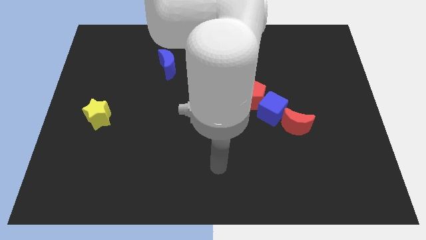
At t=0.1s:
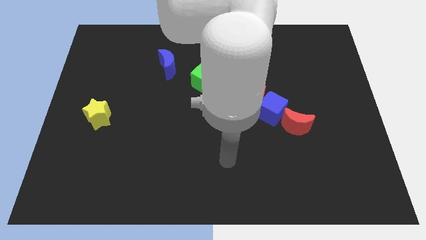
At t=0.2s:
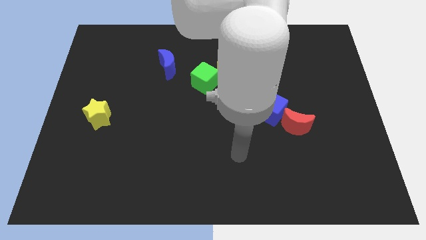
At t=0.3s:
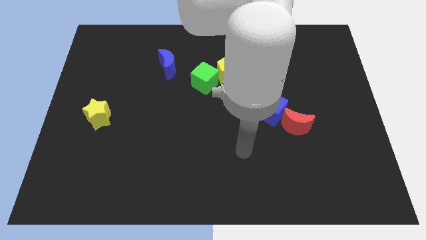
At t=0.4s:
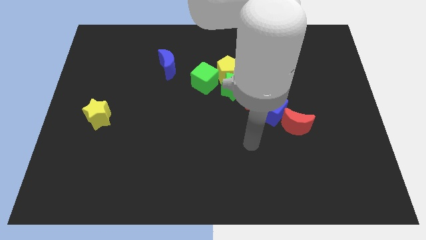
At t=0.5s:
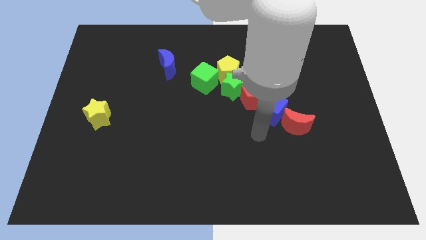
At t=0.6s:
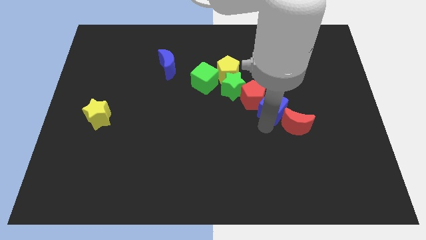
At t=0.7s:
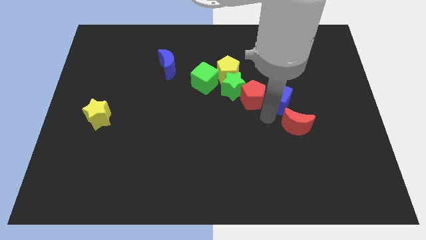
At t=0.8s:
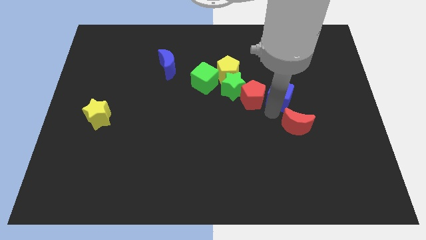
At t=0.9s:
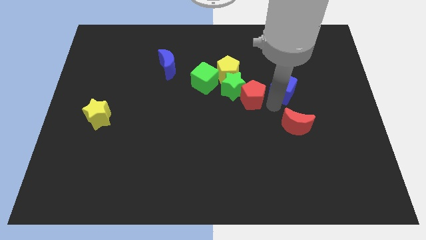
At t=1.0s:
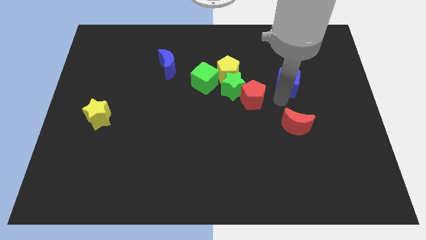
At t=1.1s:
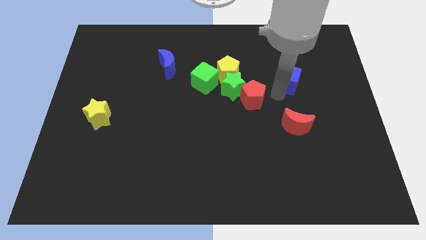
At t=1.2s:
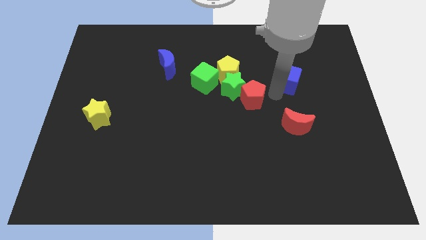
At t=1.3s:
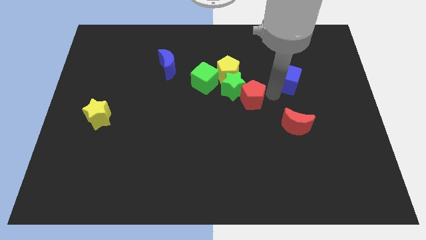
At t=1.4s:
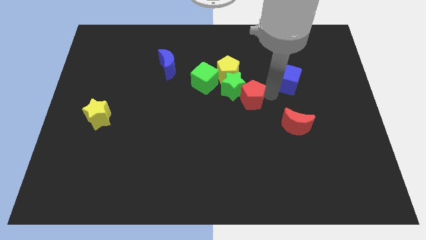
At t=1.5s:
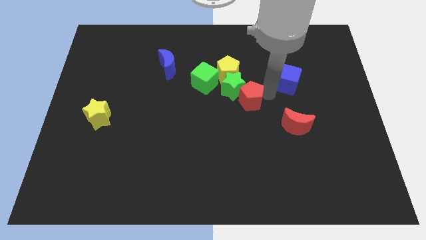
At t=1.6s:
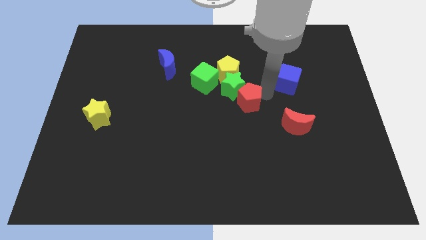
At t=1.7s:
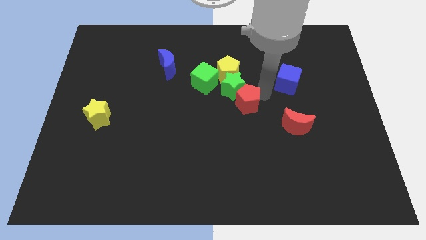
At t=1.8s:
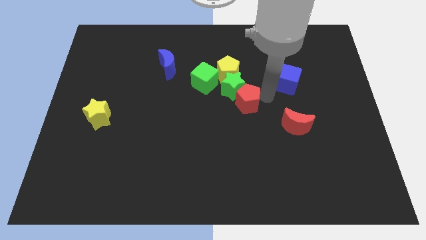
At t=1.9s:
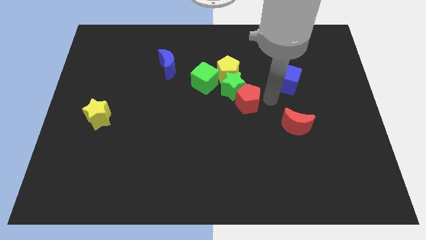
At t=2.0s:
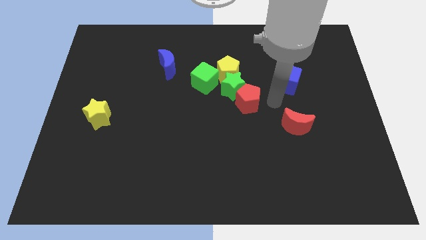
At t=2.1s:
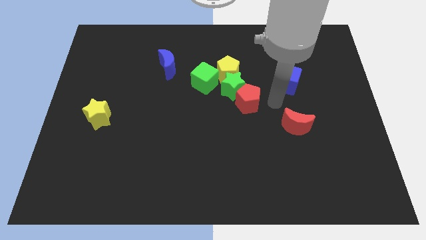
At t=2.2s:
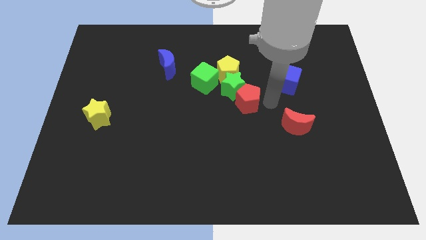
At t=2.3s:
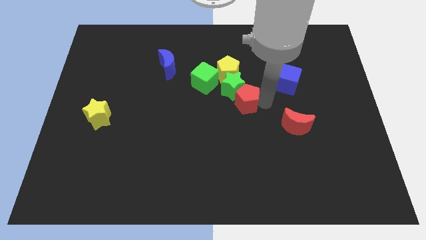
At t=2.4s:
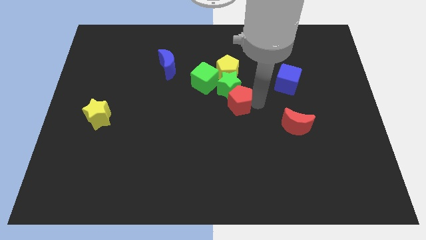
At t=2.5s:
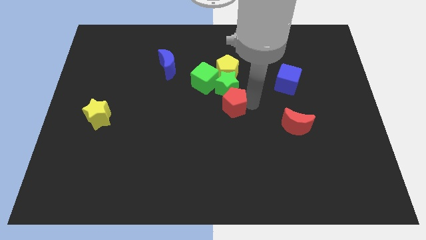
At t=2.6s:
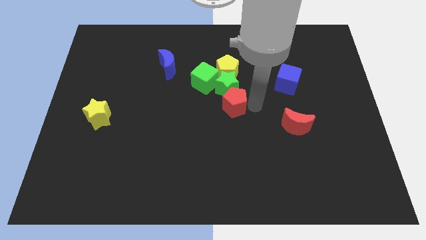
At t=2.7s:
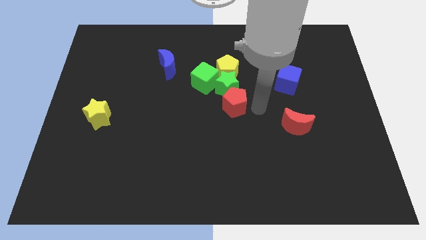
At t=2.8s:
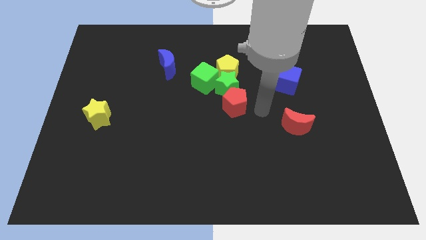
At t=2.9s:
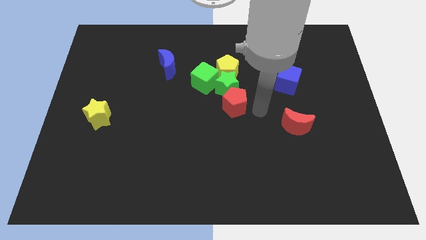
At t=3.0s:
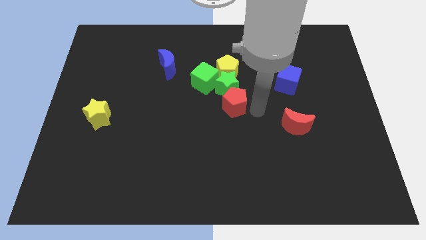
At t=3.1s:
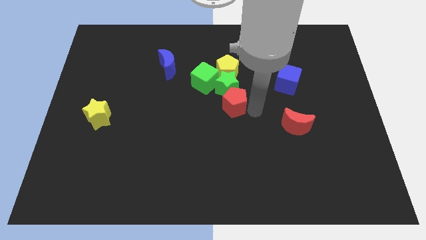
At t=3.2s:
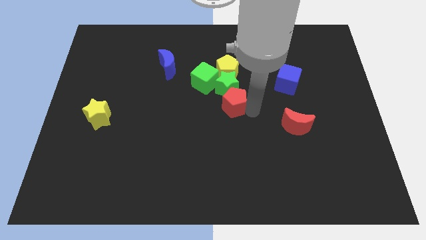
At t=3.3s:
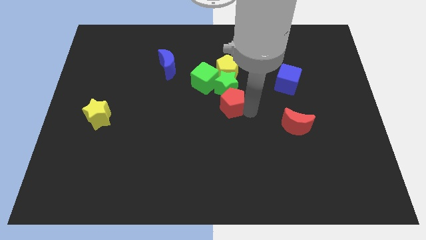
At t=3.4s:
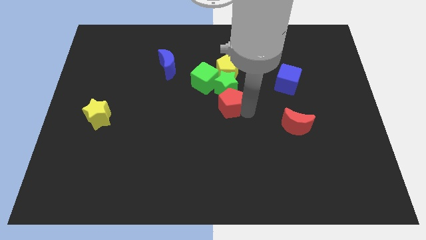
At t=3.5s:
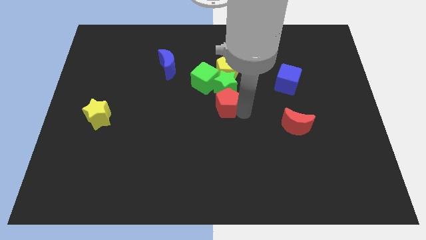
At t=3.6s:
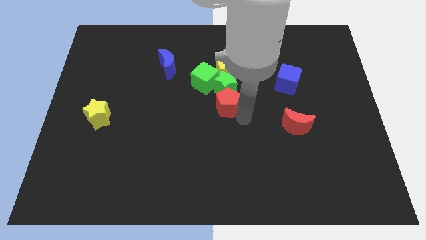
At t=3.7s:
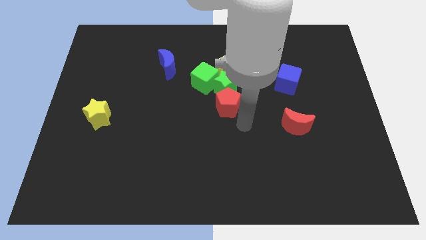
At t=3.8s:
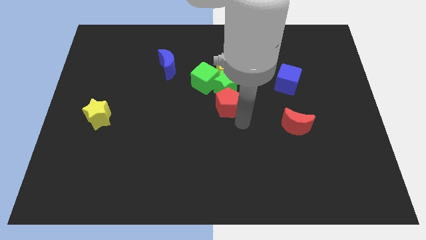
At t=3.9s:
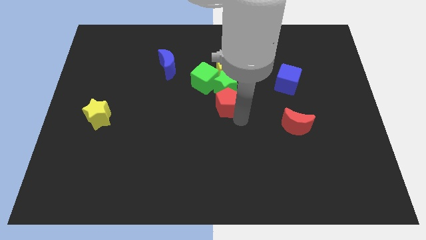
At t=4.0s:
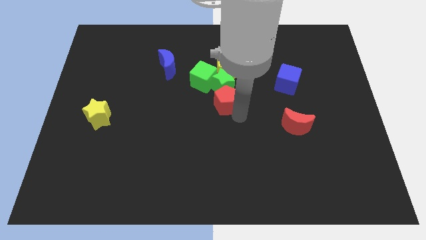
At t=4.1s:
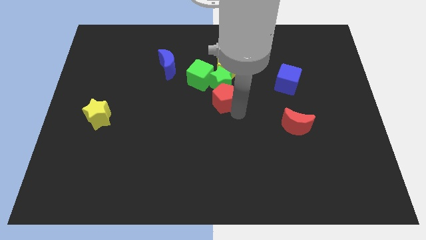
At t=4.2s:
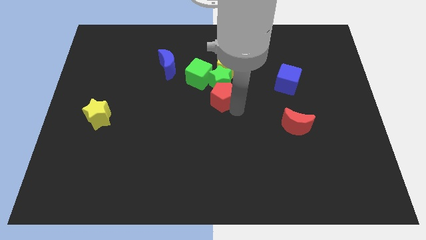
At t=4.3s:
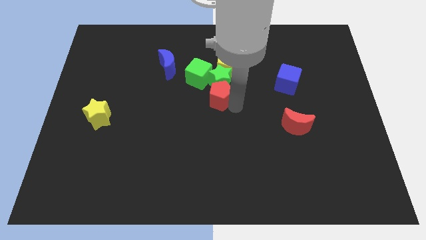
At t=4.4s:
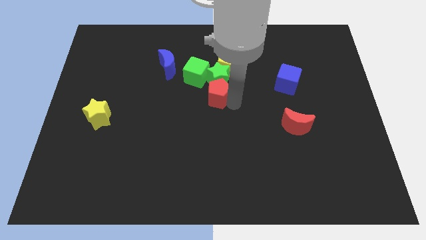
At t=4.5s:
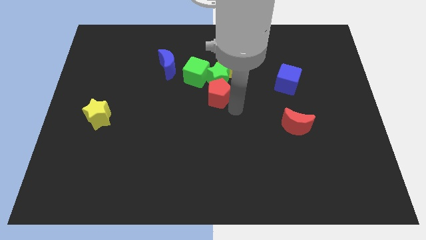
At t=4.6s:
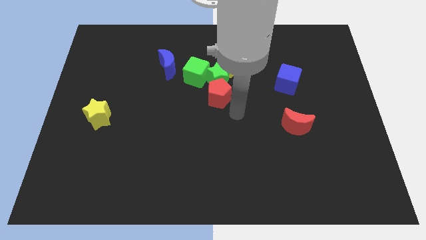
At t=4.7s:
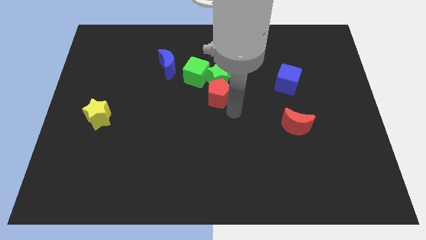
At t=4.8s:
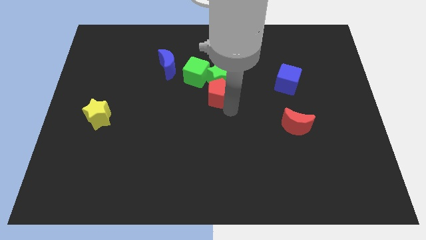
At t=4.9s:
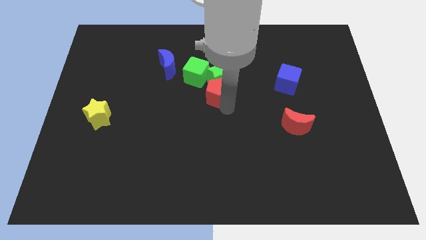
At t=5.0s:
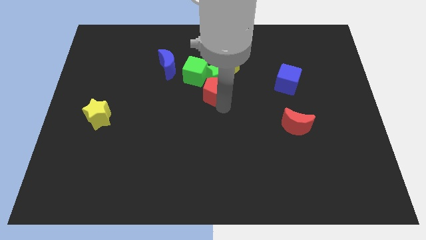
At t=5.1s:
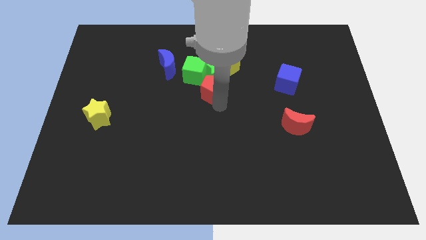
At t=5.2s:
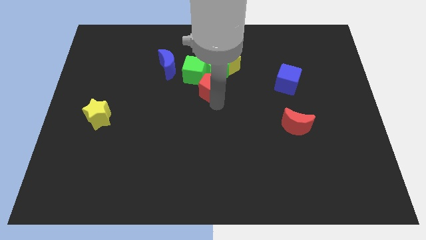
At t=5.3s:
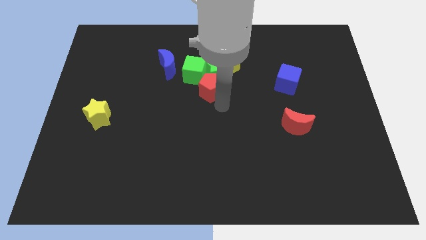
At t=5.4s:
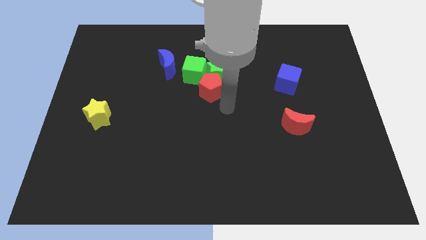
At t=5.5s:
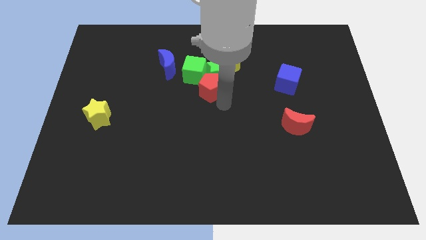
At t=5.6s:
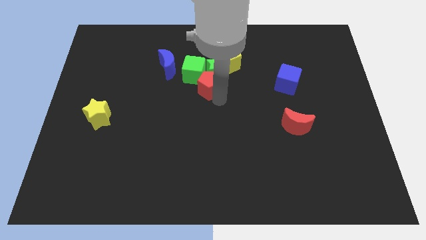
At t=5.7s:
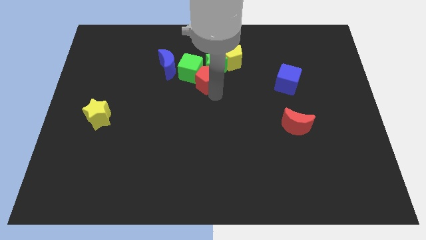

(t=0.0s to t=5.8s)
push the red pentagon towards the green cube

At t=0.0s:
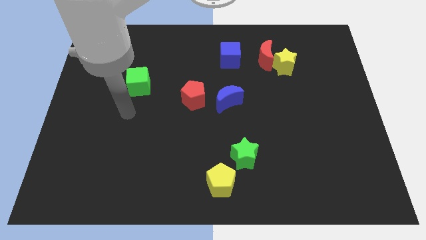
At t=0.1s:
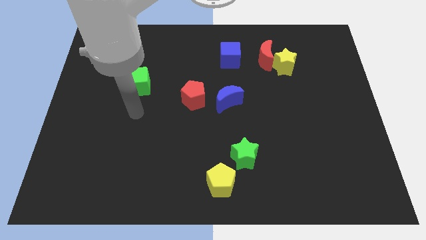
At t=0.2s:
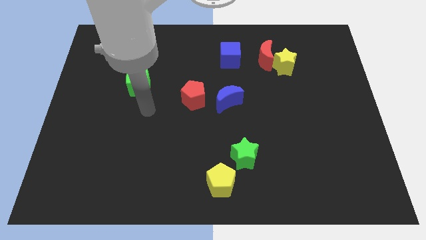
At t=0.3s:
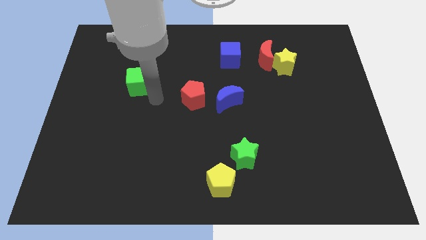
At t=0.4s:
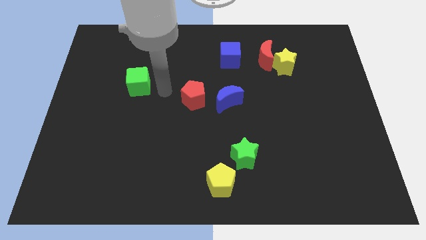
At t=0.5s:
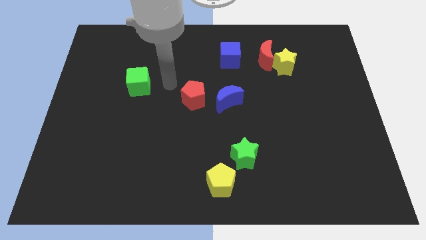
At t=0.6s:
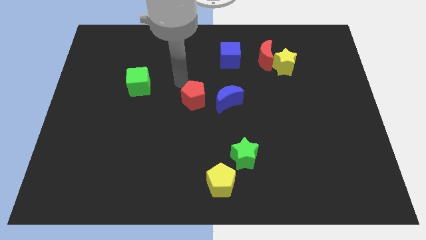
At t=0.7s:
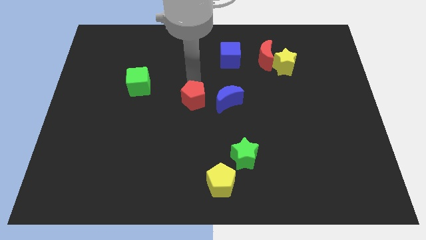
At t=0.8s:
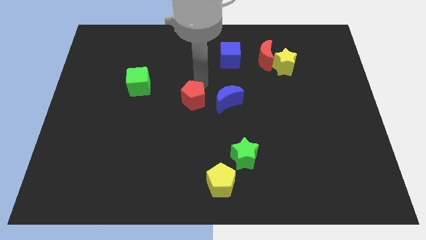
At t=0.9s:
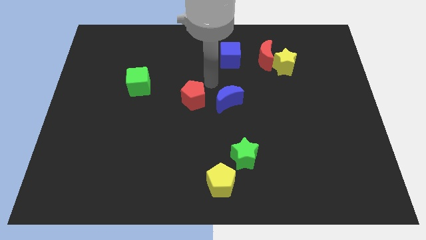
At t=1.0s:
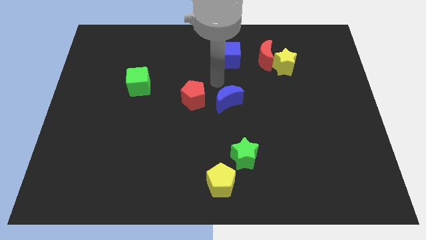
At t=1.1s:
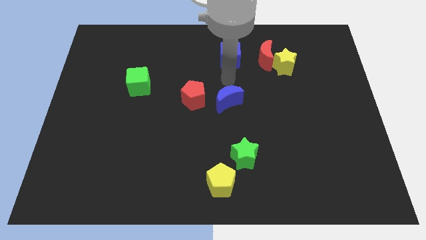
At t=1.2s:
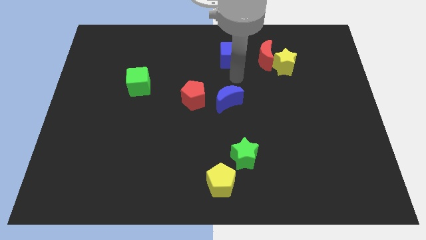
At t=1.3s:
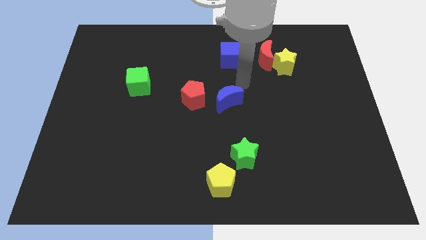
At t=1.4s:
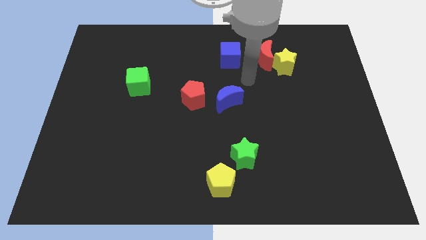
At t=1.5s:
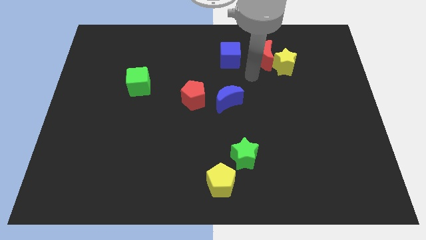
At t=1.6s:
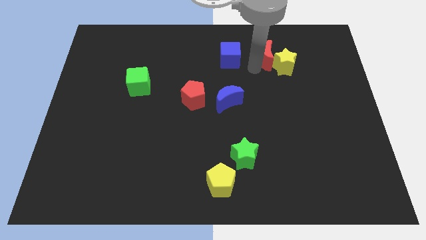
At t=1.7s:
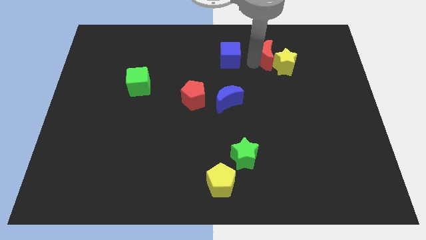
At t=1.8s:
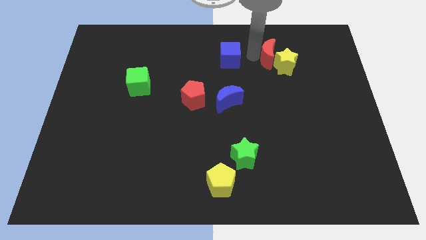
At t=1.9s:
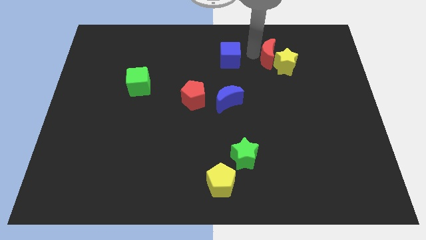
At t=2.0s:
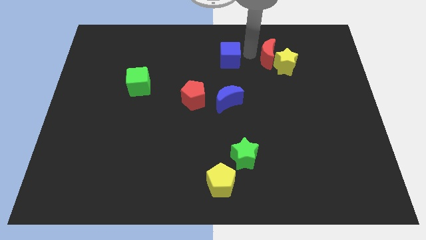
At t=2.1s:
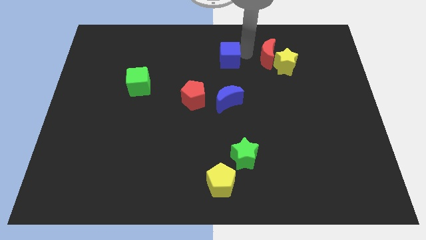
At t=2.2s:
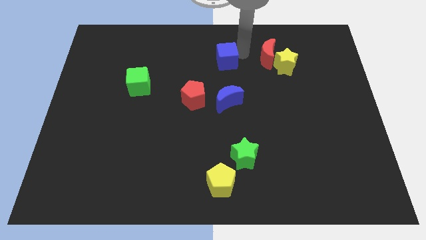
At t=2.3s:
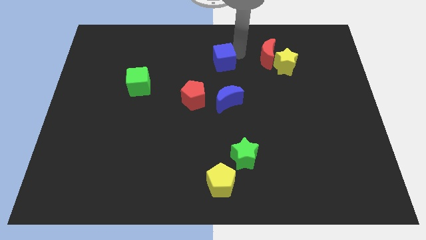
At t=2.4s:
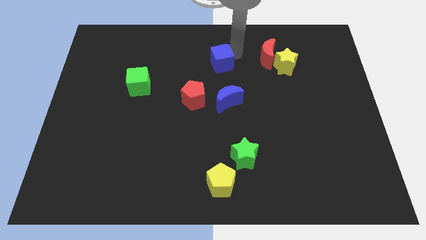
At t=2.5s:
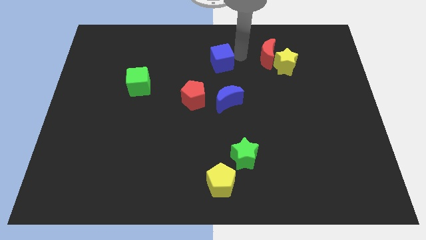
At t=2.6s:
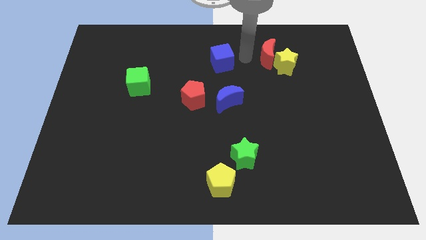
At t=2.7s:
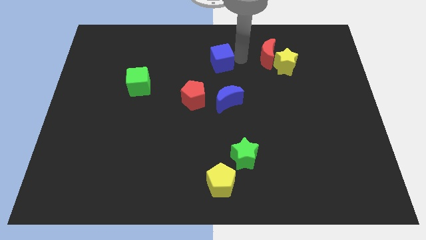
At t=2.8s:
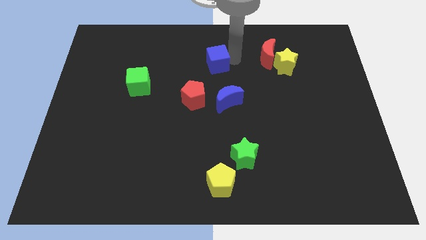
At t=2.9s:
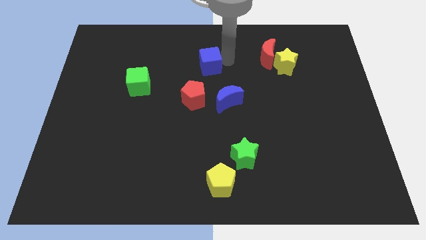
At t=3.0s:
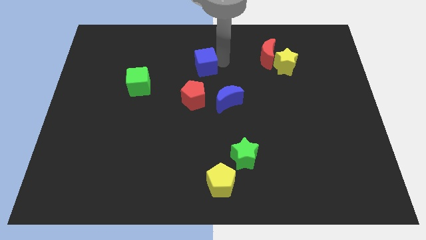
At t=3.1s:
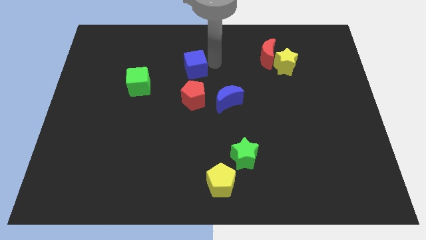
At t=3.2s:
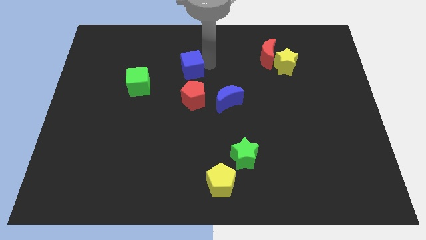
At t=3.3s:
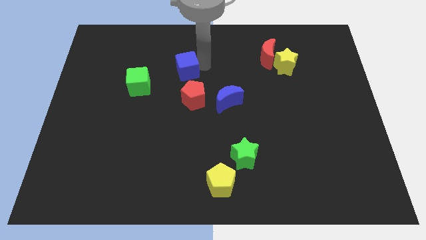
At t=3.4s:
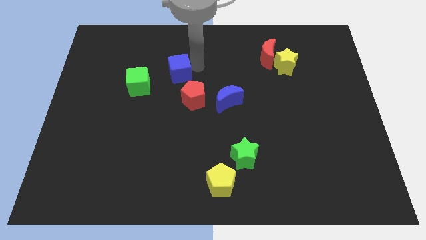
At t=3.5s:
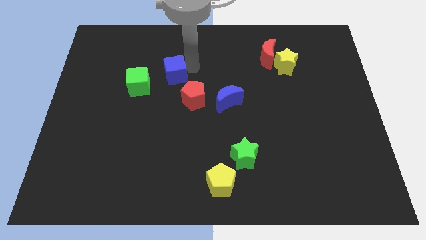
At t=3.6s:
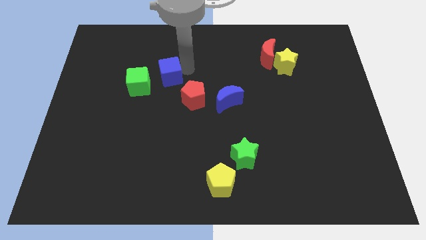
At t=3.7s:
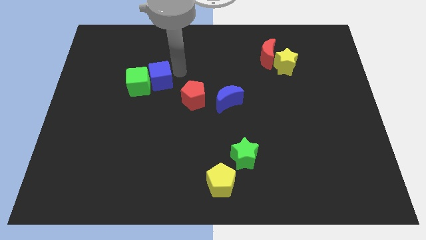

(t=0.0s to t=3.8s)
slide the blue cube to the green cube
